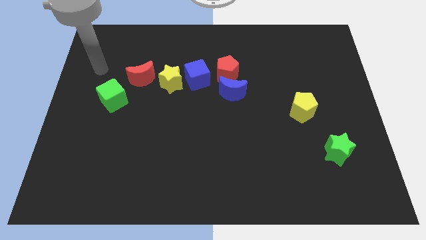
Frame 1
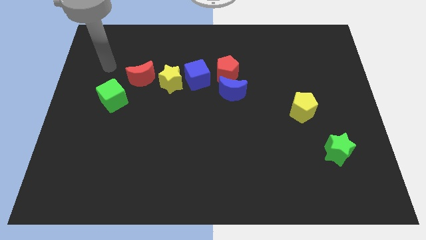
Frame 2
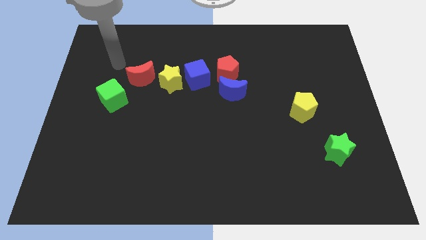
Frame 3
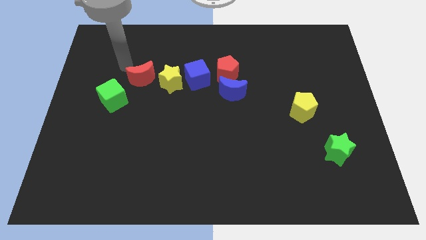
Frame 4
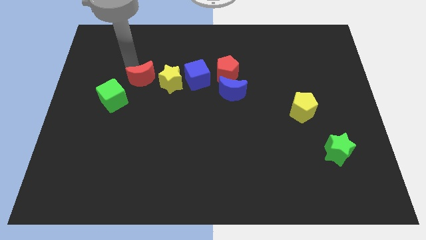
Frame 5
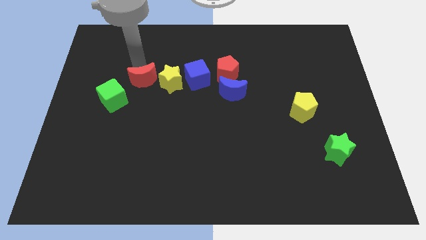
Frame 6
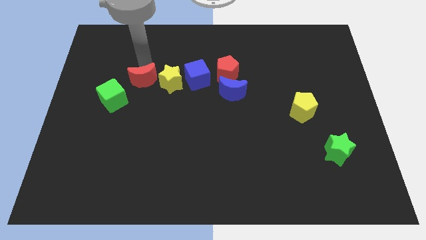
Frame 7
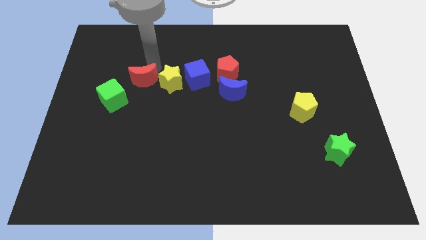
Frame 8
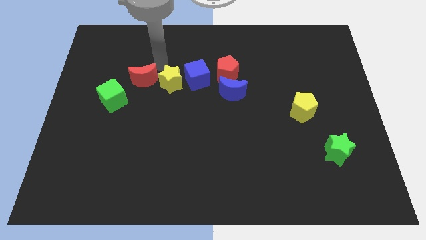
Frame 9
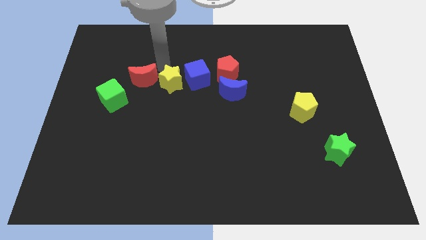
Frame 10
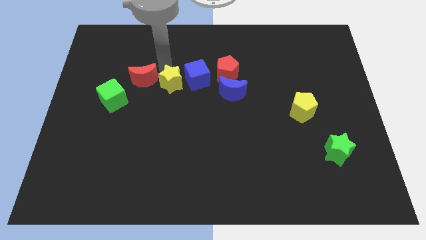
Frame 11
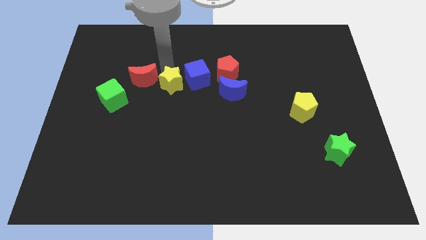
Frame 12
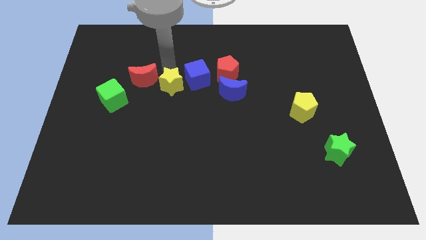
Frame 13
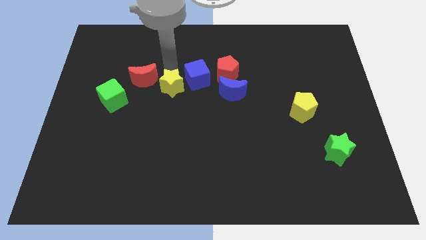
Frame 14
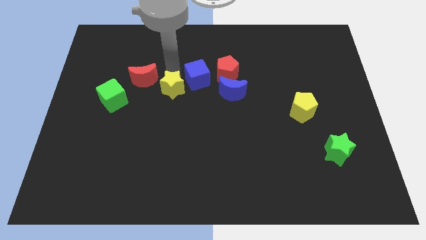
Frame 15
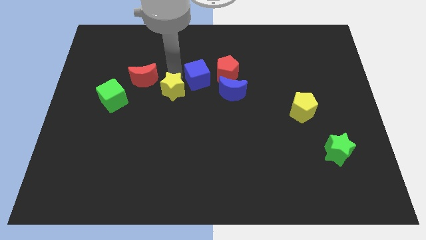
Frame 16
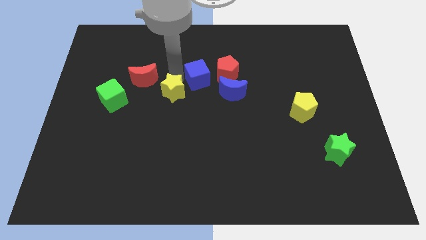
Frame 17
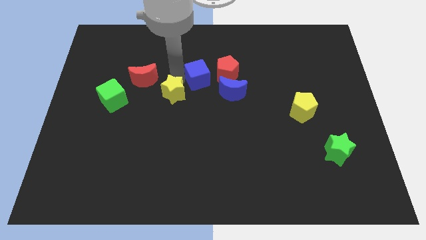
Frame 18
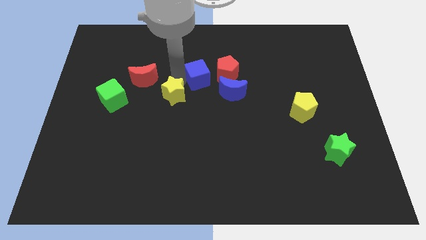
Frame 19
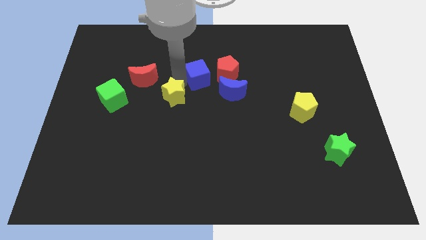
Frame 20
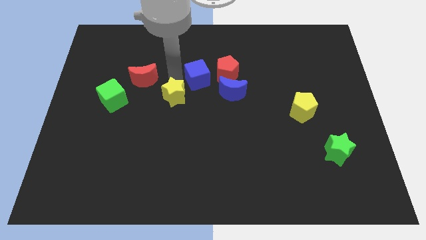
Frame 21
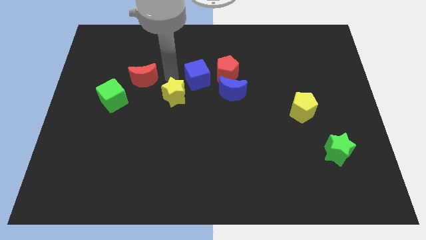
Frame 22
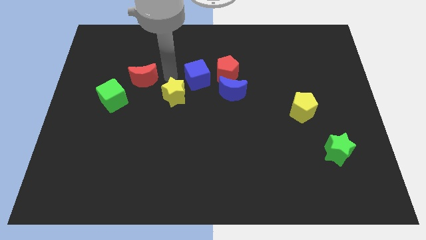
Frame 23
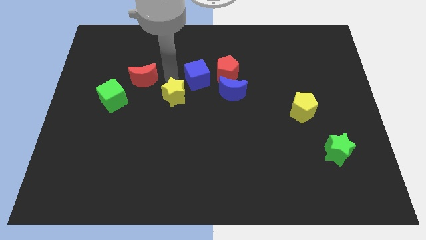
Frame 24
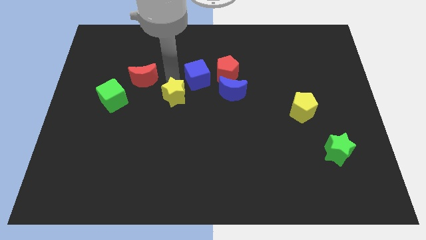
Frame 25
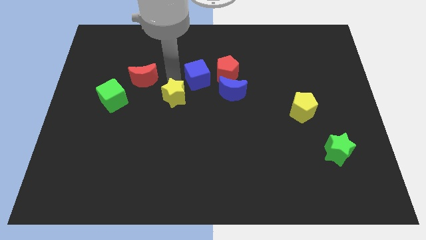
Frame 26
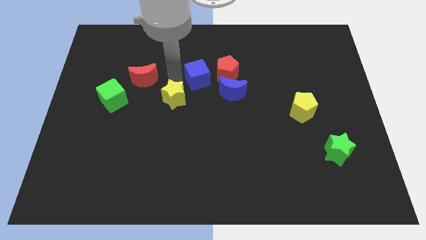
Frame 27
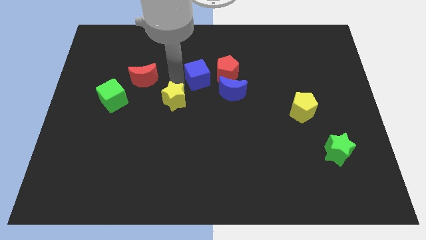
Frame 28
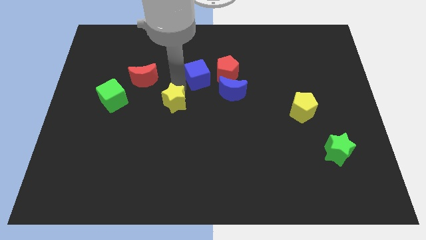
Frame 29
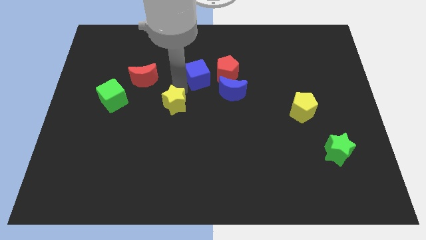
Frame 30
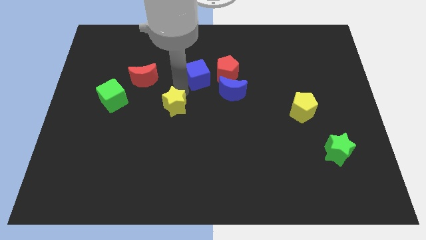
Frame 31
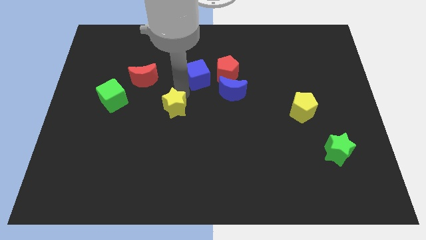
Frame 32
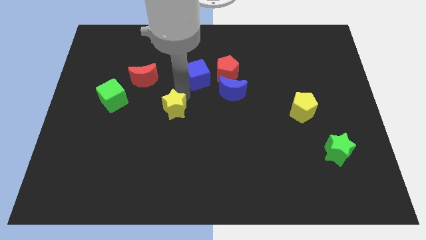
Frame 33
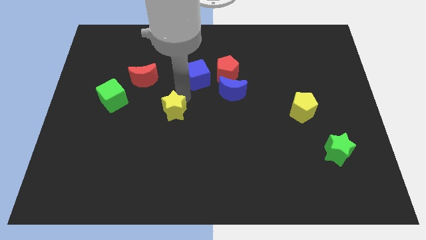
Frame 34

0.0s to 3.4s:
move the yellow star away from the blue cube and red moon

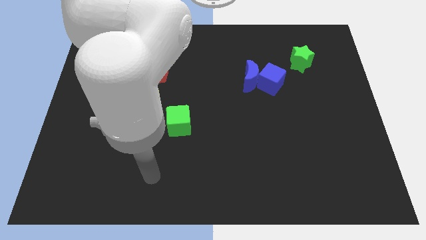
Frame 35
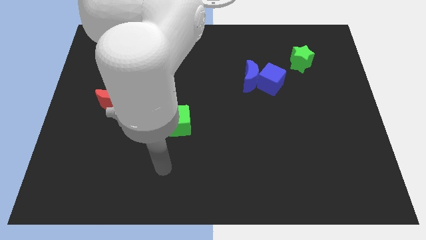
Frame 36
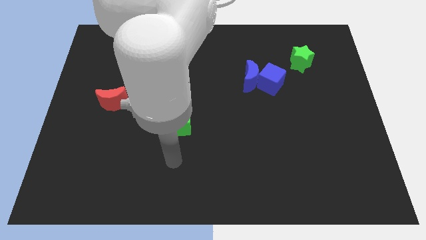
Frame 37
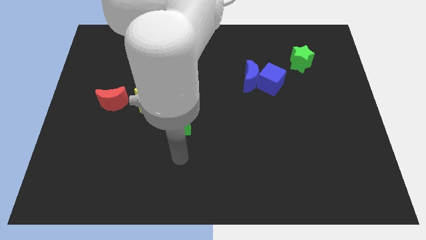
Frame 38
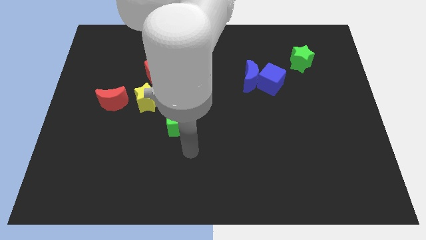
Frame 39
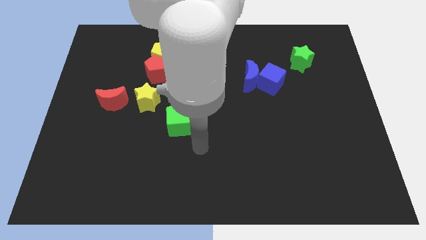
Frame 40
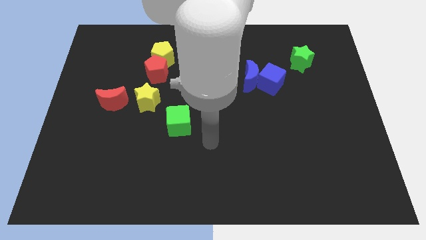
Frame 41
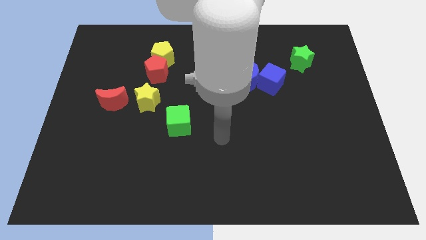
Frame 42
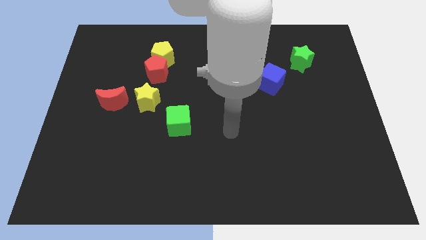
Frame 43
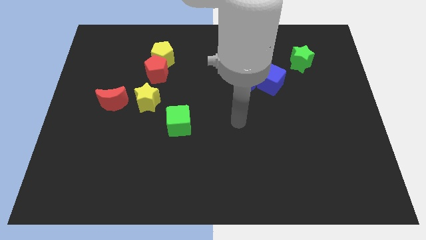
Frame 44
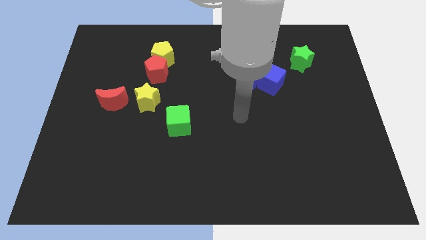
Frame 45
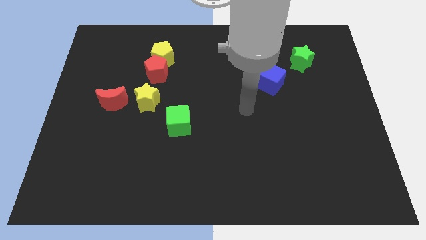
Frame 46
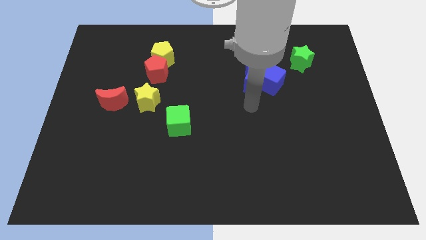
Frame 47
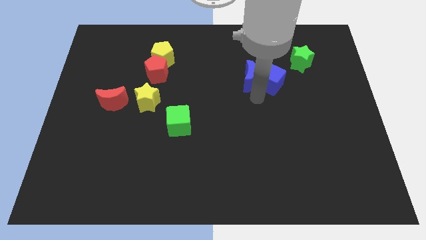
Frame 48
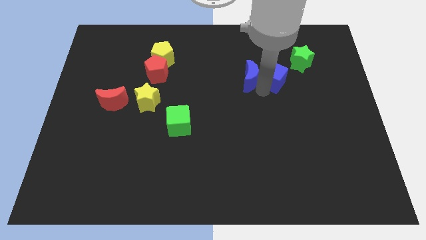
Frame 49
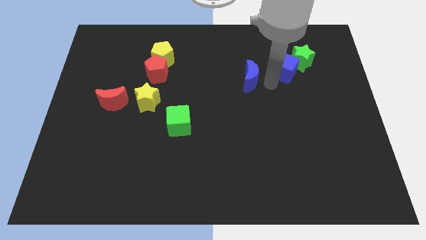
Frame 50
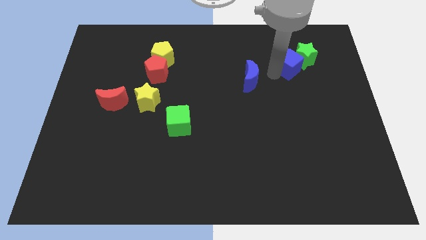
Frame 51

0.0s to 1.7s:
separate the blue moon from the blue cube

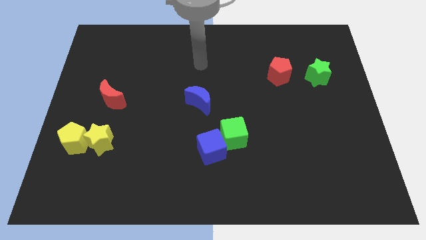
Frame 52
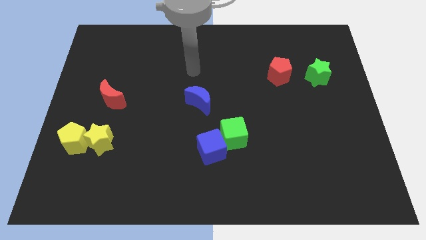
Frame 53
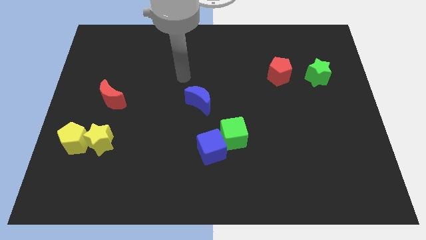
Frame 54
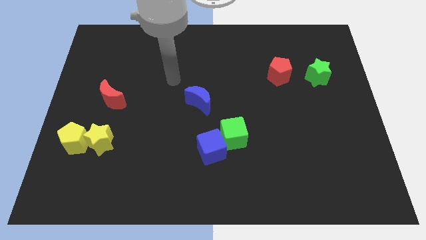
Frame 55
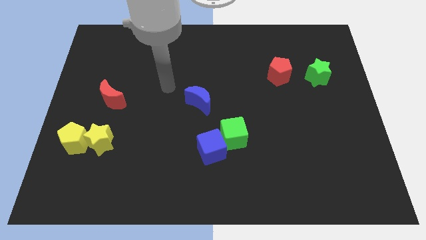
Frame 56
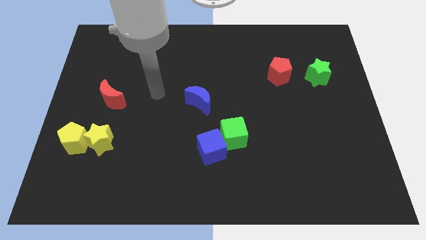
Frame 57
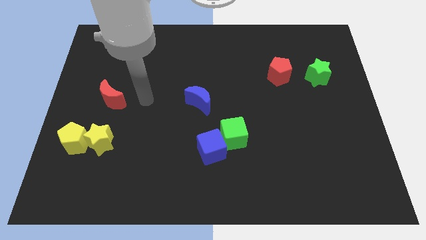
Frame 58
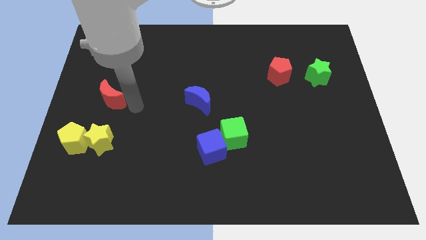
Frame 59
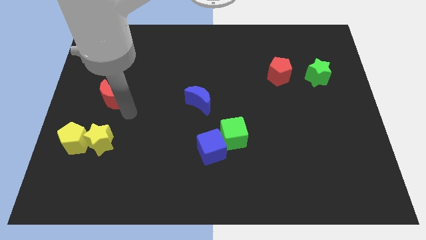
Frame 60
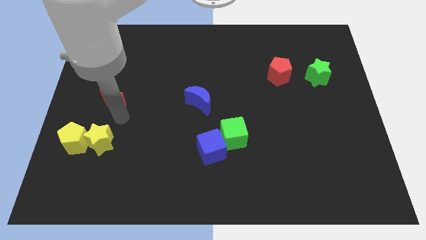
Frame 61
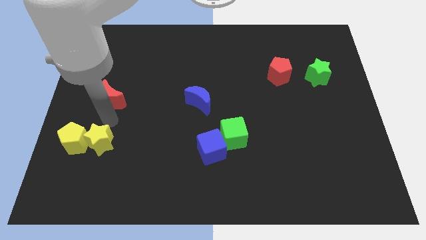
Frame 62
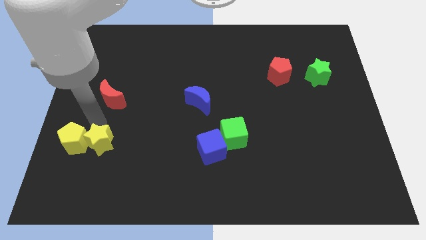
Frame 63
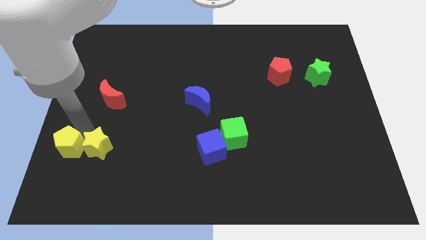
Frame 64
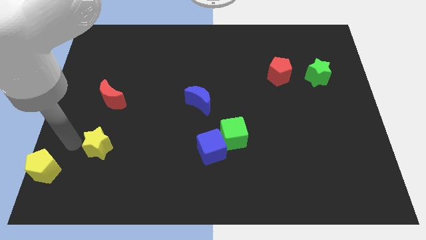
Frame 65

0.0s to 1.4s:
pull the yellow star apart from the yellow pentagon

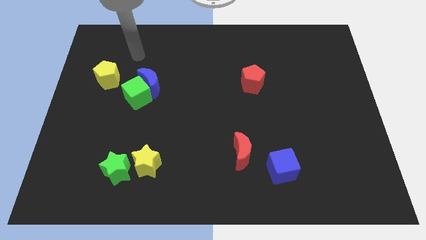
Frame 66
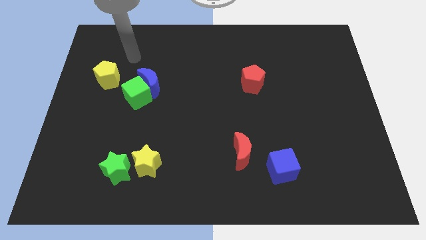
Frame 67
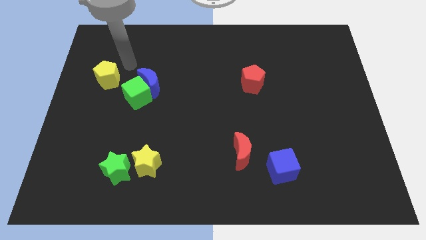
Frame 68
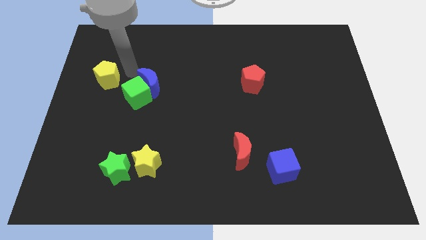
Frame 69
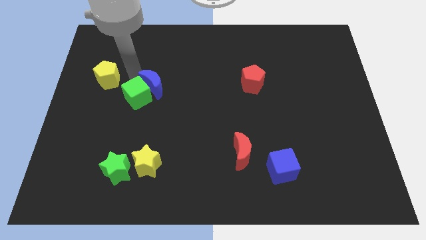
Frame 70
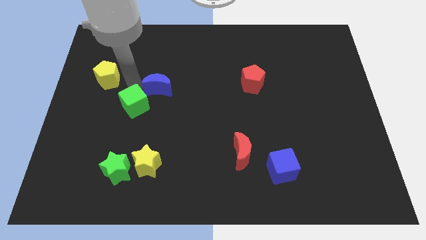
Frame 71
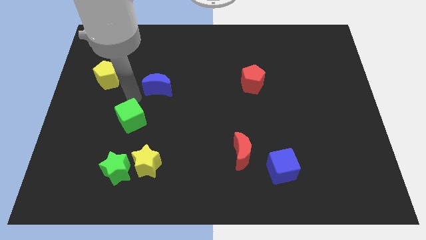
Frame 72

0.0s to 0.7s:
move the blue moon away from the green cube

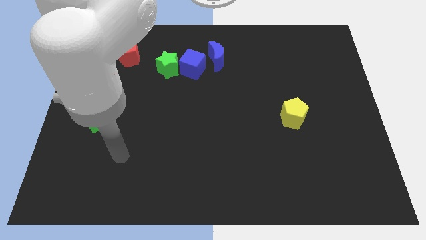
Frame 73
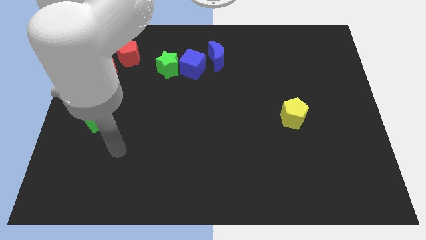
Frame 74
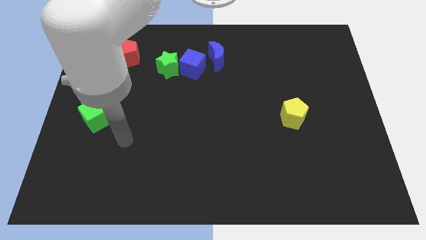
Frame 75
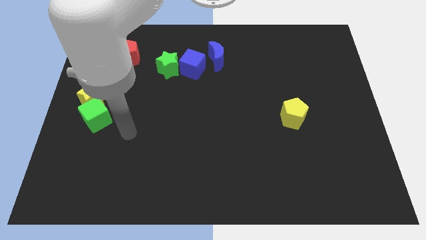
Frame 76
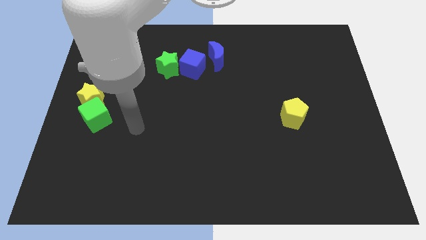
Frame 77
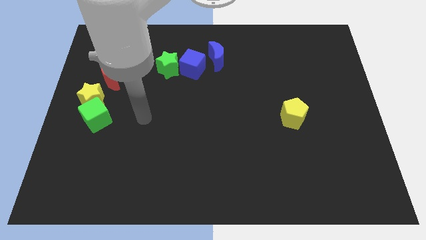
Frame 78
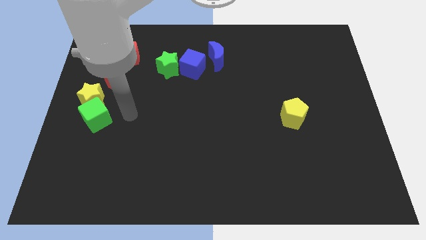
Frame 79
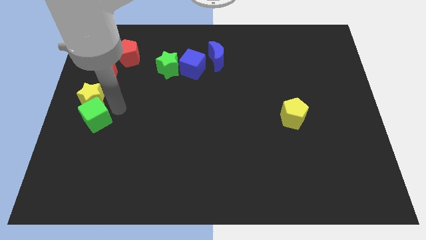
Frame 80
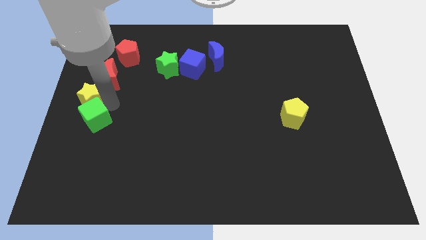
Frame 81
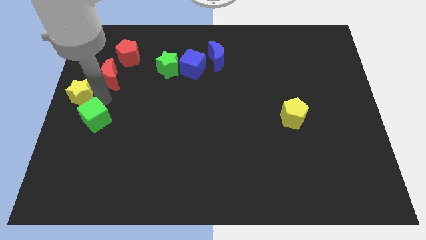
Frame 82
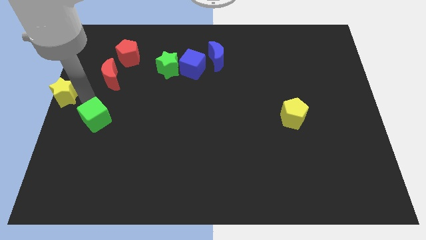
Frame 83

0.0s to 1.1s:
separate the green cube from the yellow star

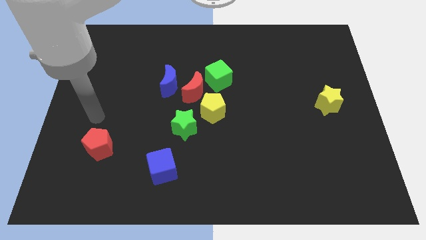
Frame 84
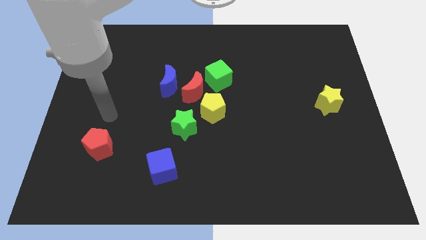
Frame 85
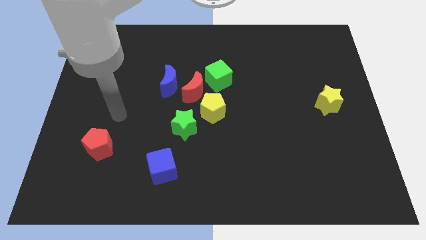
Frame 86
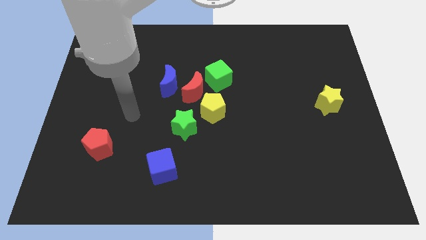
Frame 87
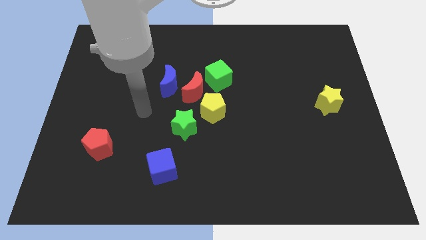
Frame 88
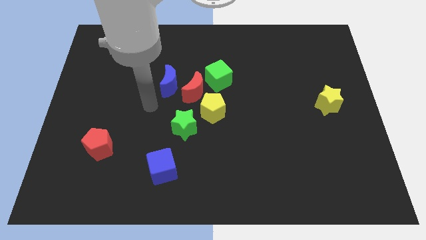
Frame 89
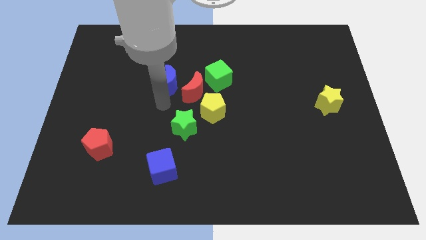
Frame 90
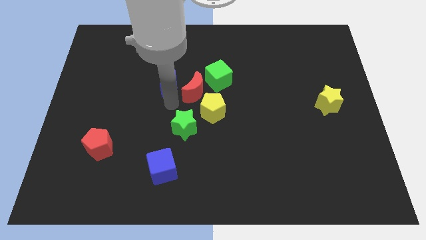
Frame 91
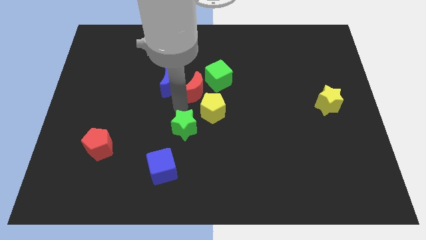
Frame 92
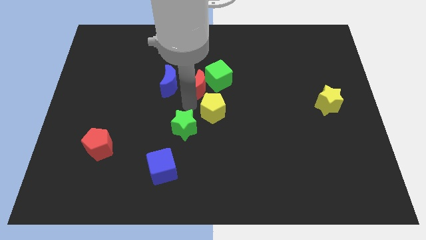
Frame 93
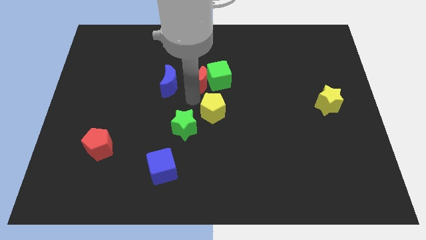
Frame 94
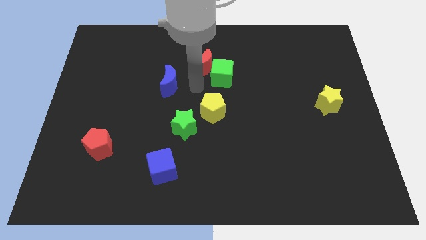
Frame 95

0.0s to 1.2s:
pull the blue moon apart from the red moon

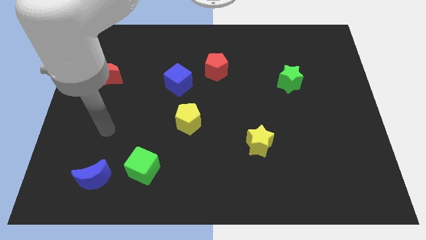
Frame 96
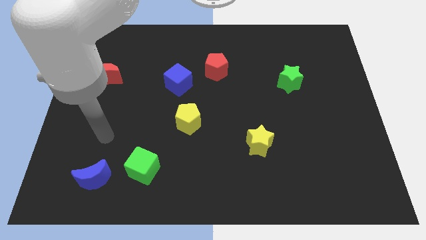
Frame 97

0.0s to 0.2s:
pull the blue moon apart from the green cube
